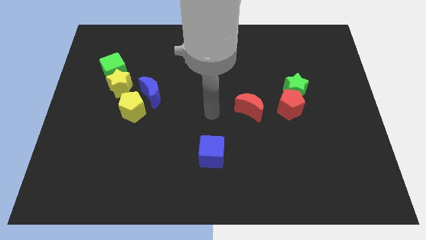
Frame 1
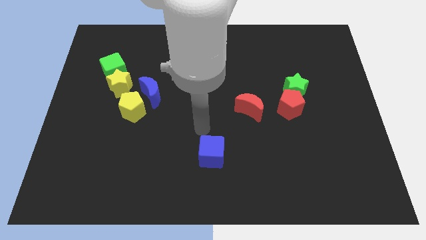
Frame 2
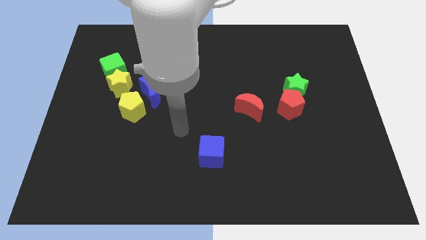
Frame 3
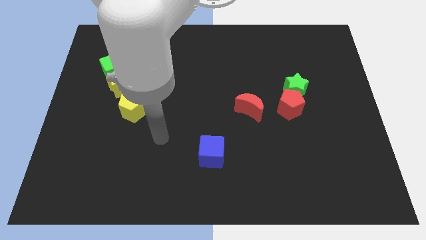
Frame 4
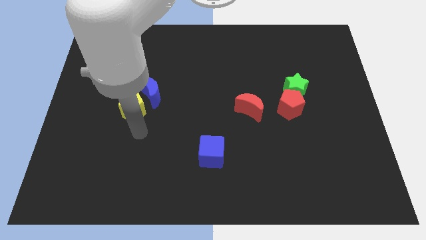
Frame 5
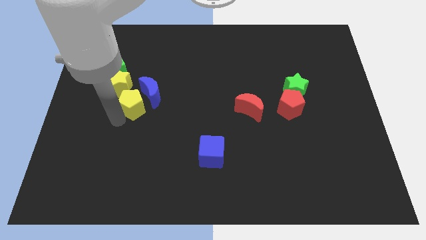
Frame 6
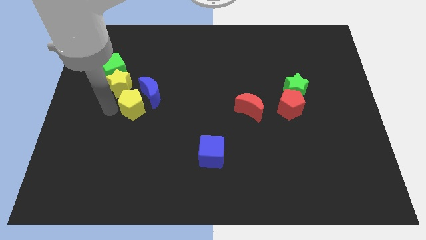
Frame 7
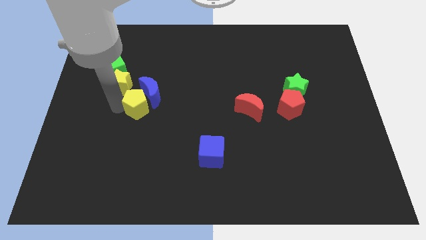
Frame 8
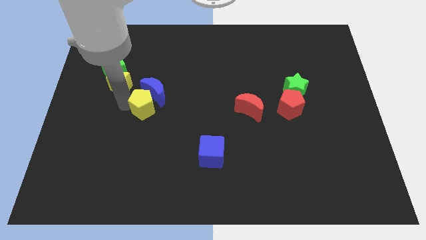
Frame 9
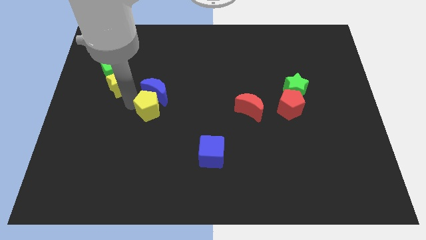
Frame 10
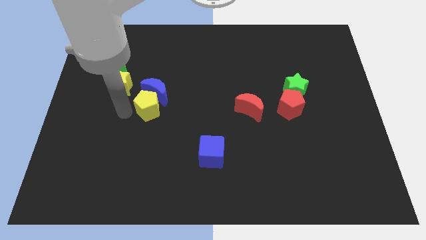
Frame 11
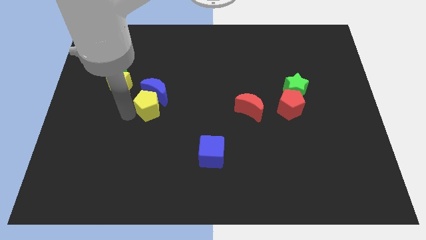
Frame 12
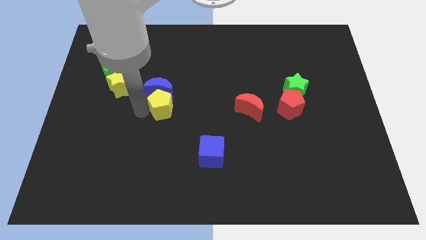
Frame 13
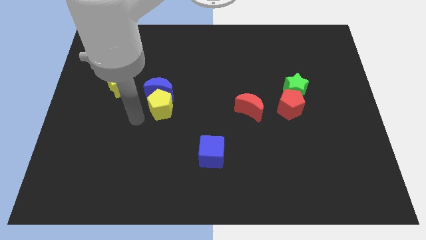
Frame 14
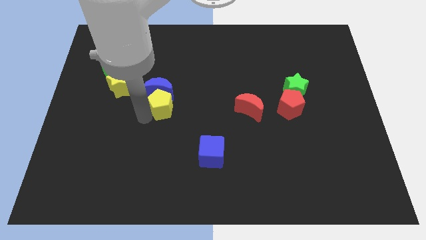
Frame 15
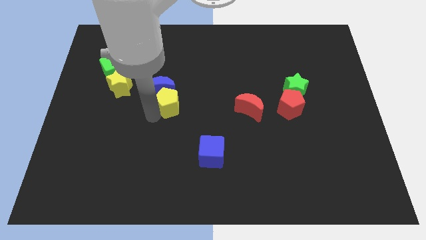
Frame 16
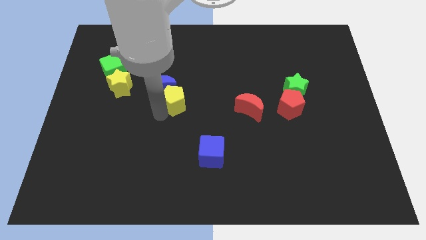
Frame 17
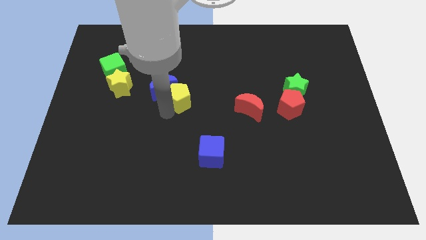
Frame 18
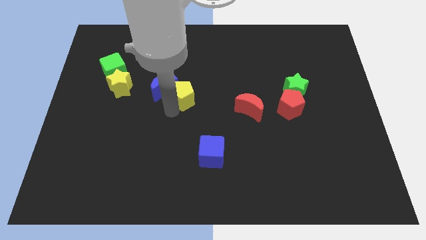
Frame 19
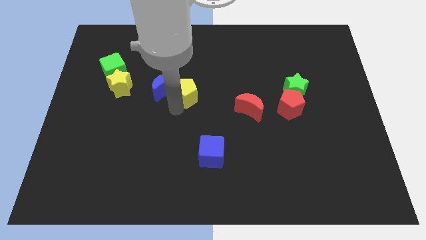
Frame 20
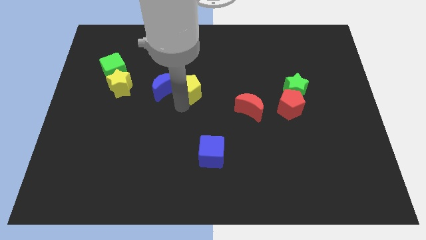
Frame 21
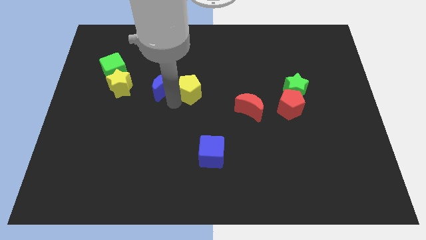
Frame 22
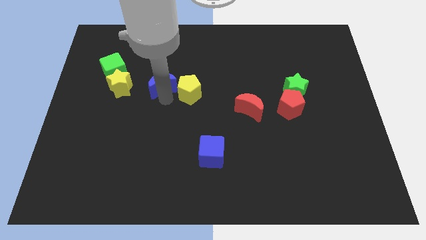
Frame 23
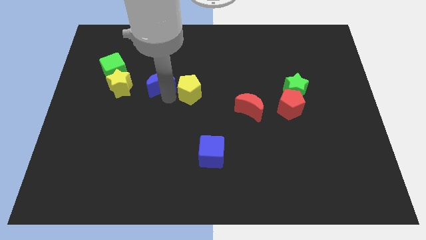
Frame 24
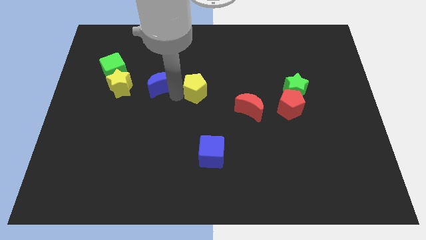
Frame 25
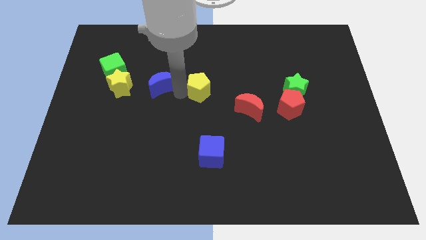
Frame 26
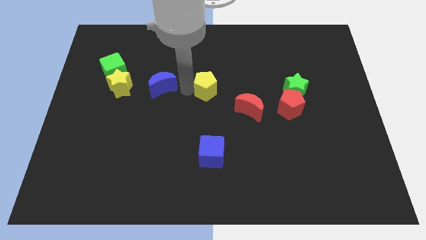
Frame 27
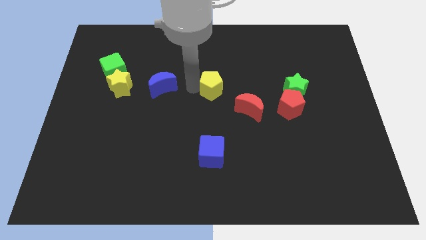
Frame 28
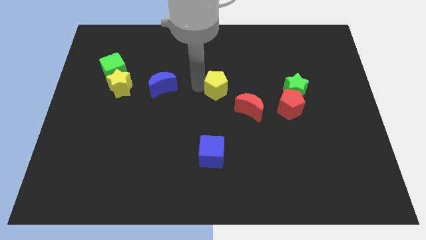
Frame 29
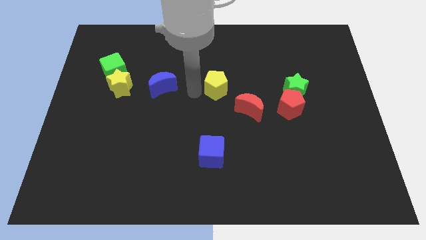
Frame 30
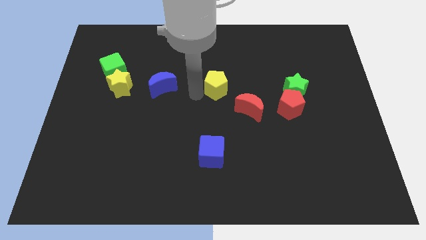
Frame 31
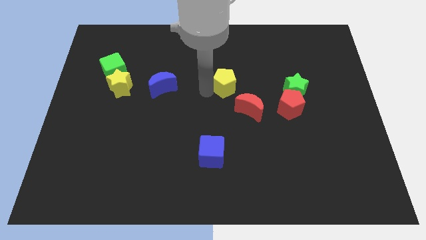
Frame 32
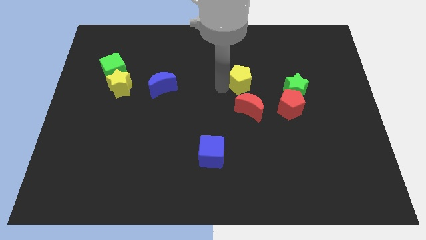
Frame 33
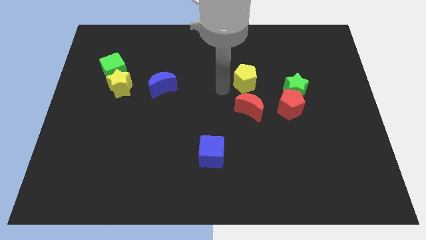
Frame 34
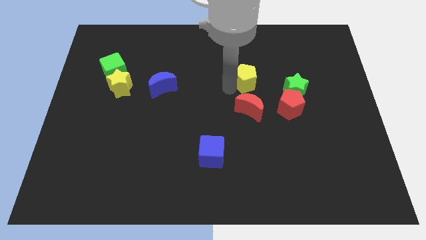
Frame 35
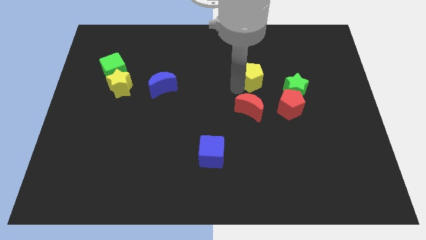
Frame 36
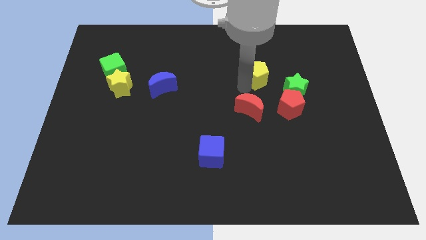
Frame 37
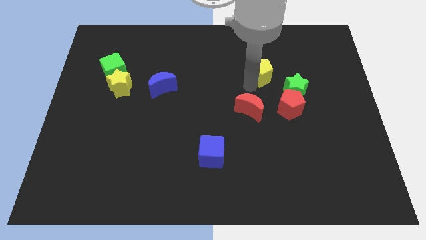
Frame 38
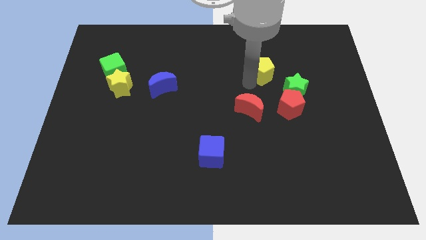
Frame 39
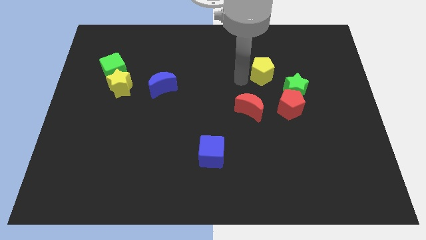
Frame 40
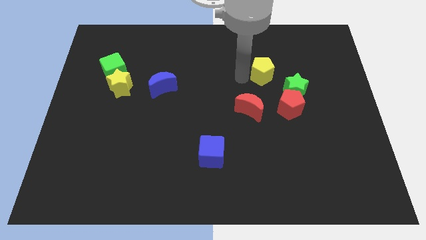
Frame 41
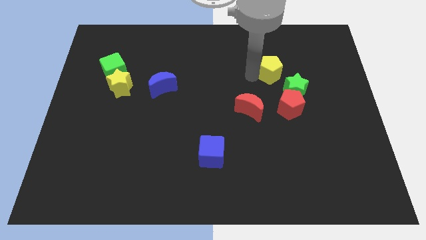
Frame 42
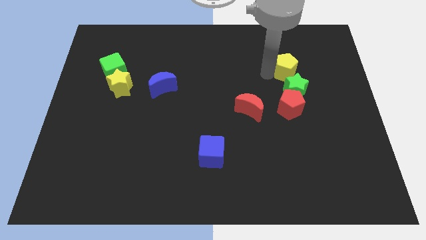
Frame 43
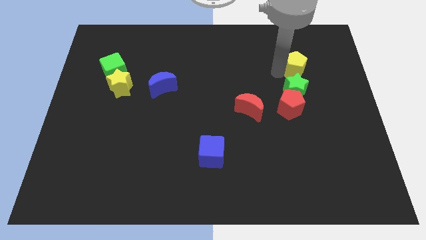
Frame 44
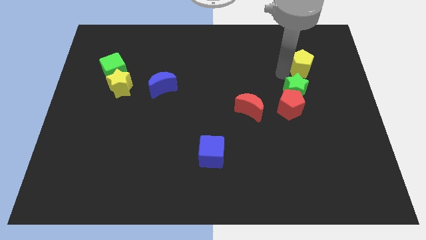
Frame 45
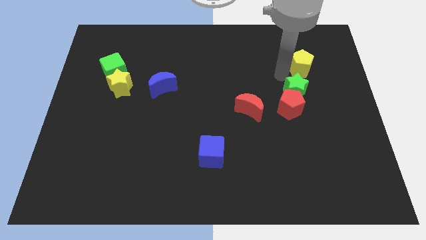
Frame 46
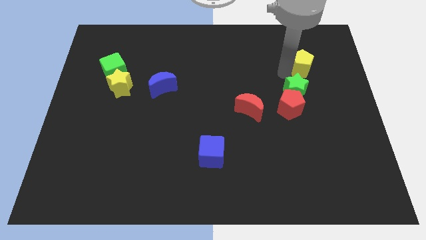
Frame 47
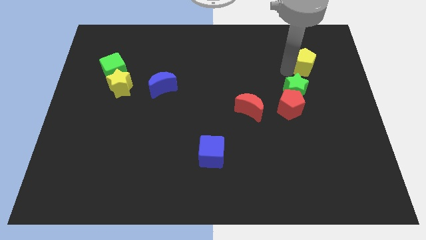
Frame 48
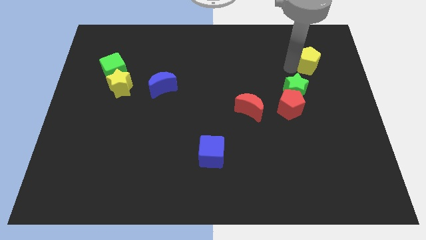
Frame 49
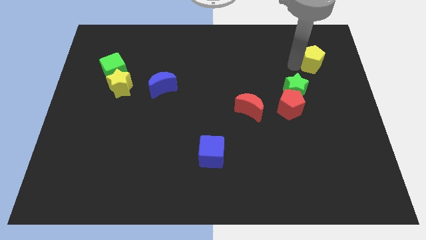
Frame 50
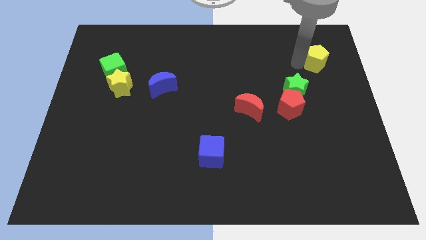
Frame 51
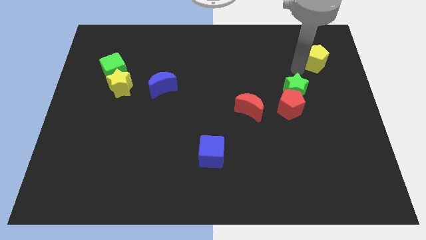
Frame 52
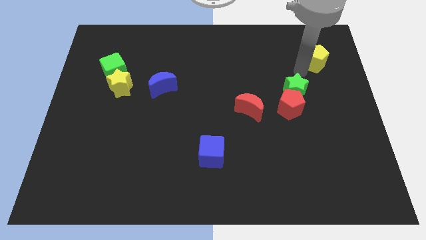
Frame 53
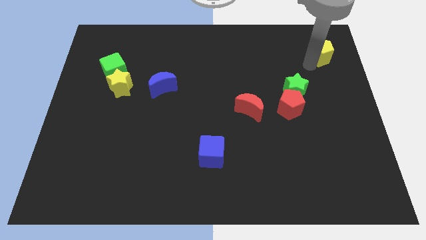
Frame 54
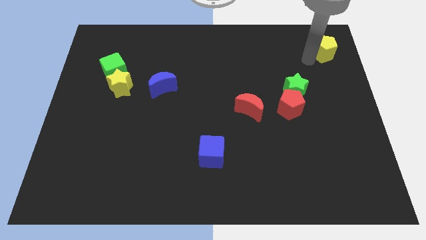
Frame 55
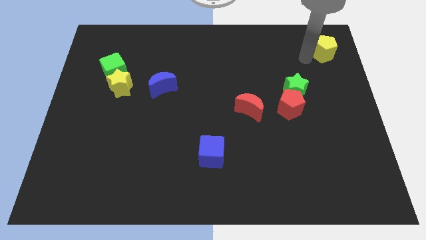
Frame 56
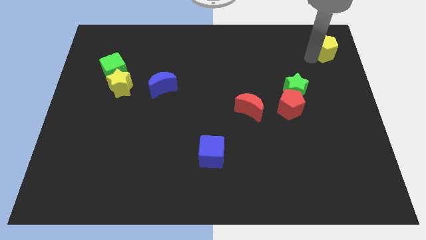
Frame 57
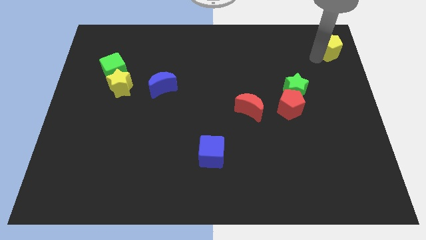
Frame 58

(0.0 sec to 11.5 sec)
slide the yellow pentagon to the top right
